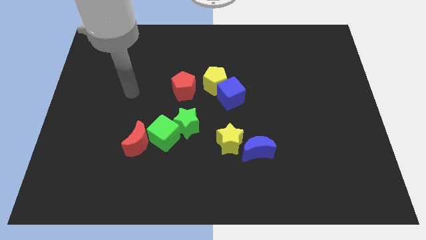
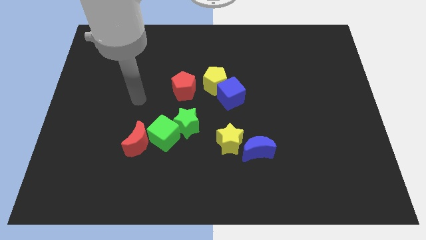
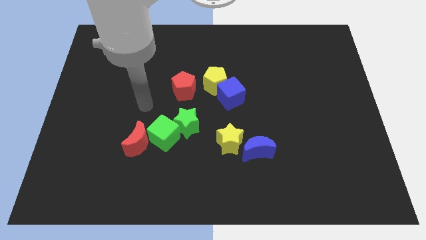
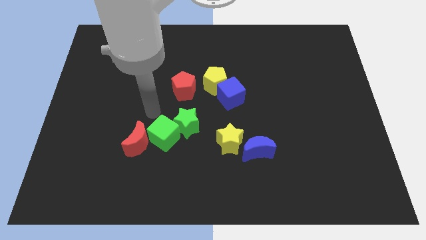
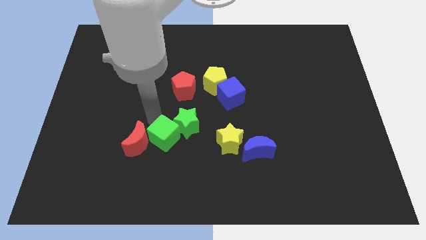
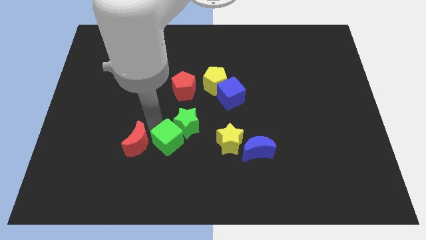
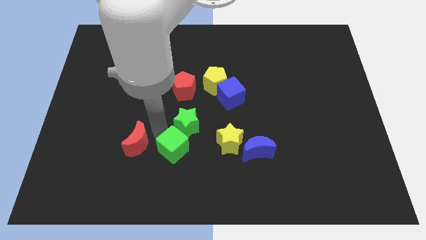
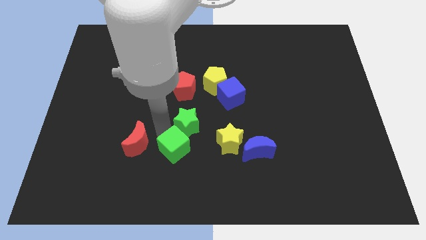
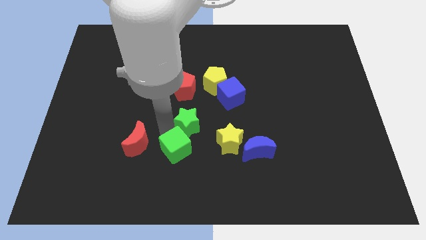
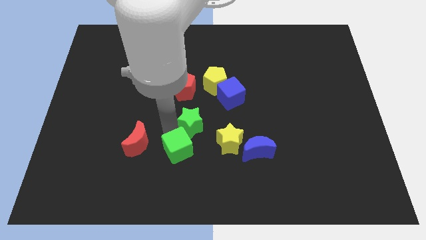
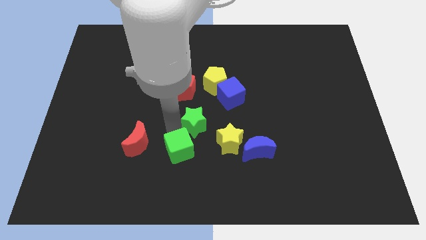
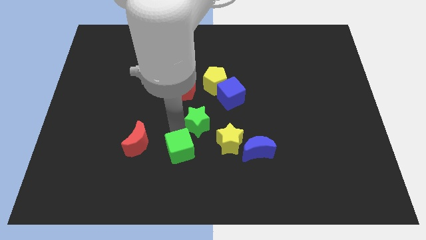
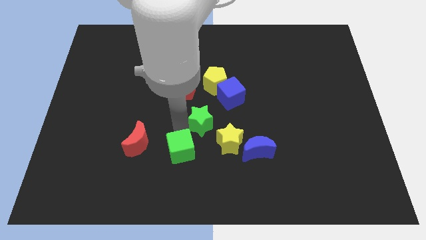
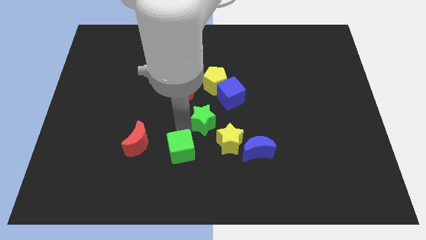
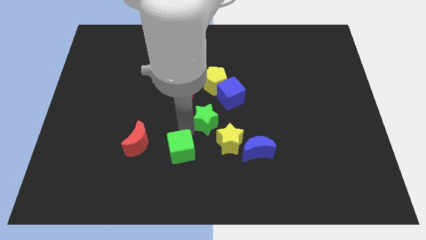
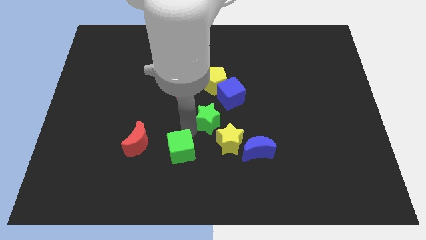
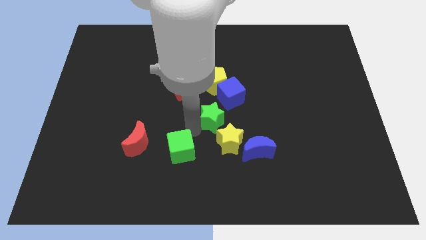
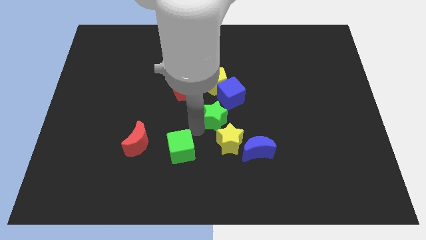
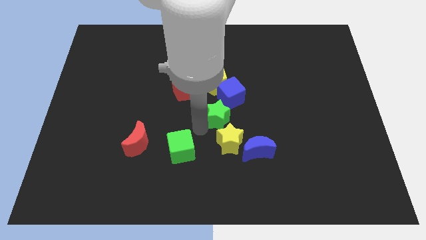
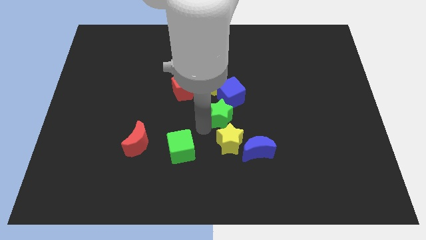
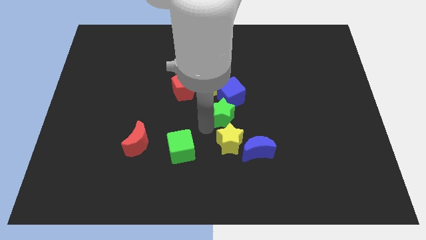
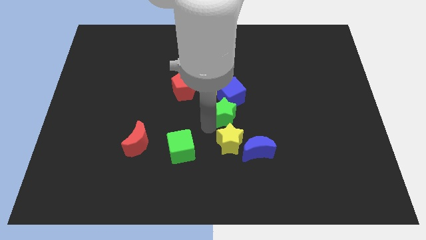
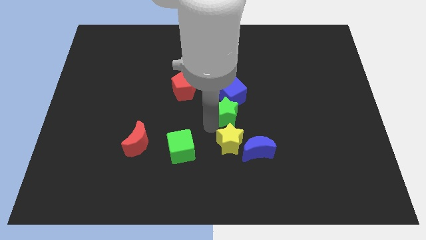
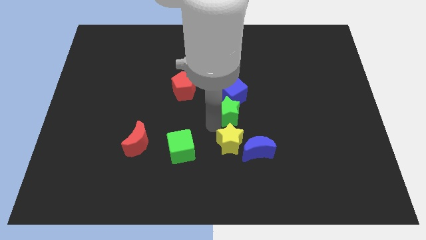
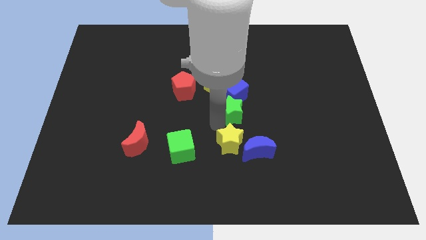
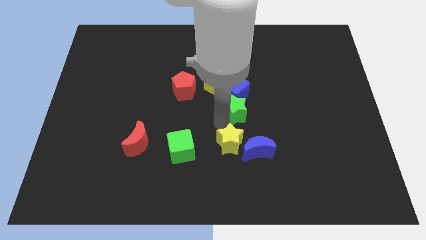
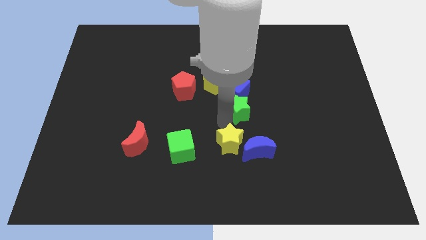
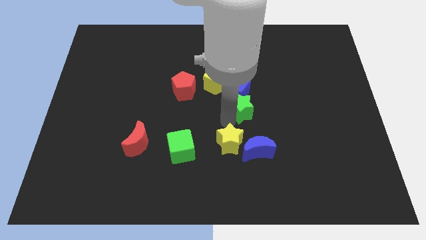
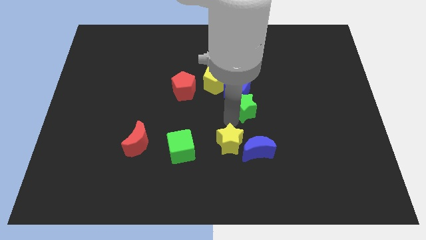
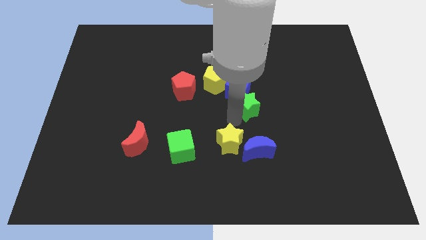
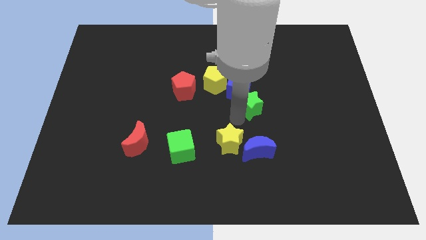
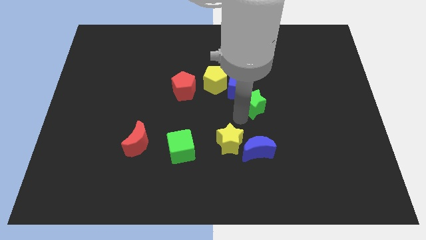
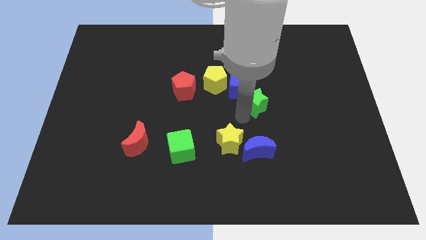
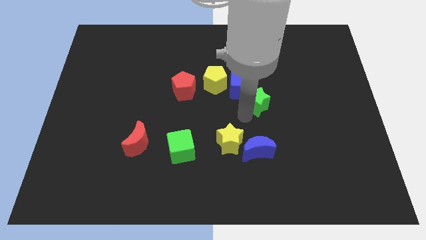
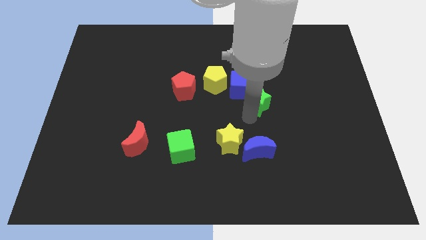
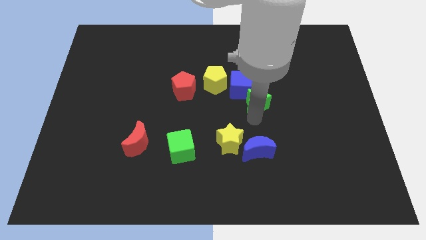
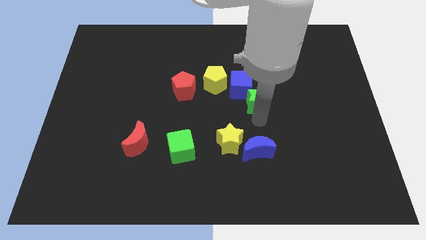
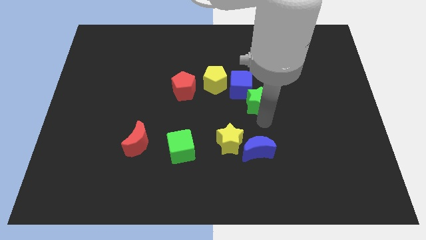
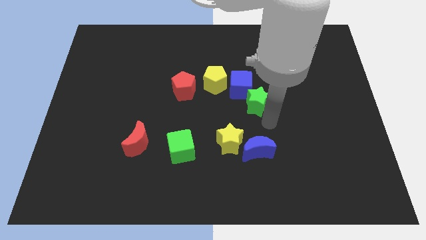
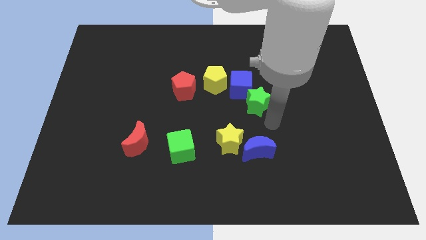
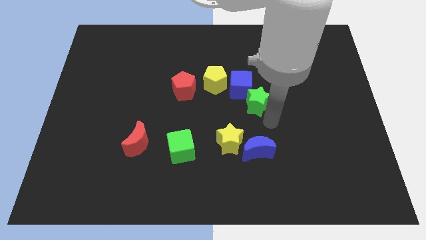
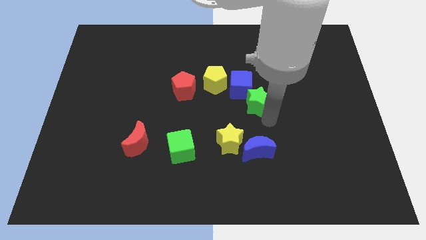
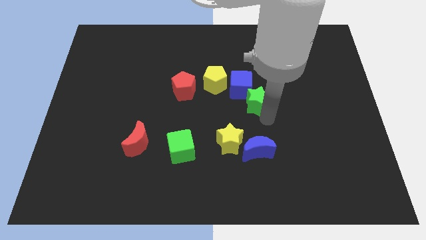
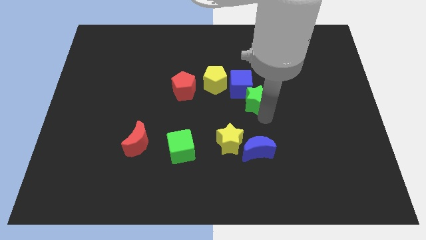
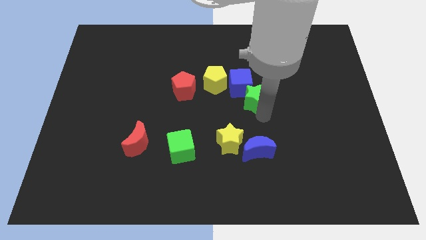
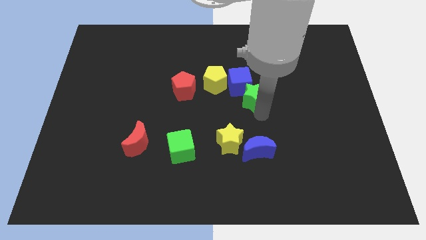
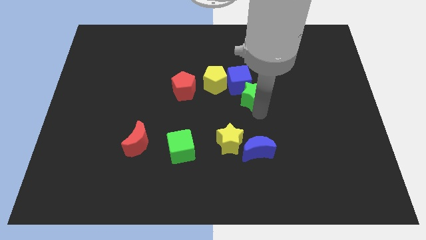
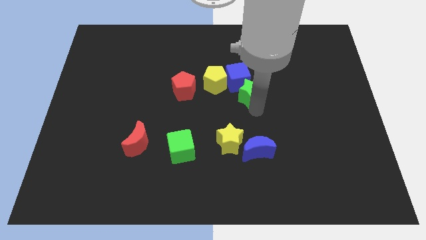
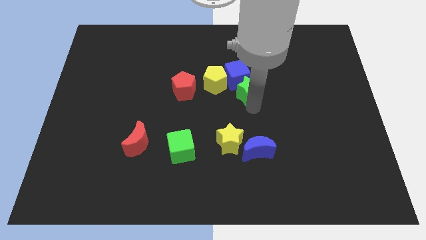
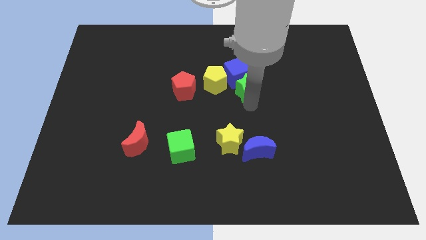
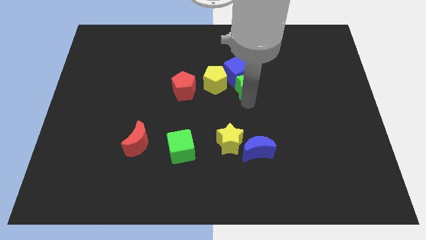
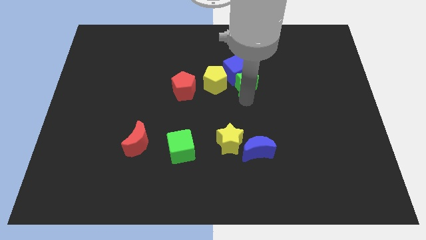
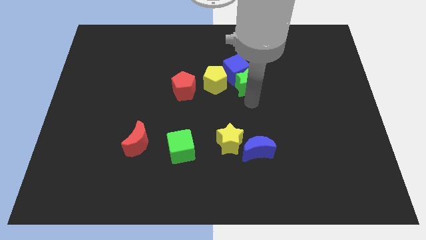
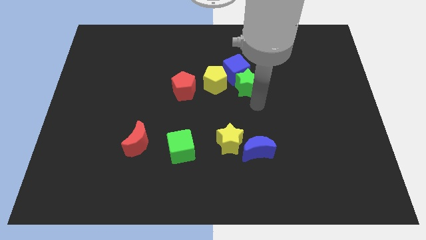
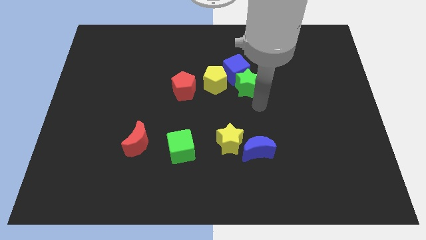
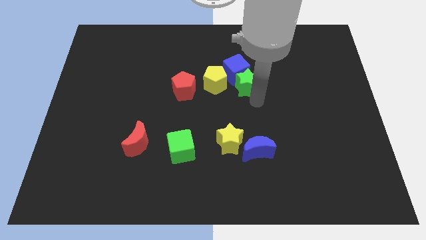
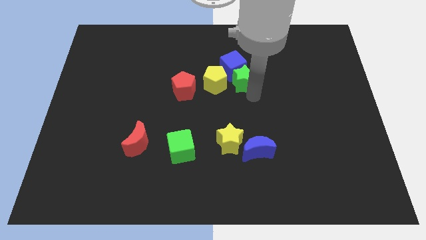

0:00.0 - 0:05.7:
push the green star to the top right of the yellow pentagon

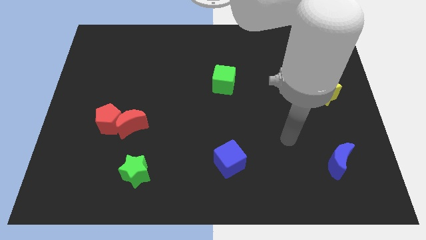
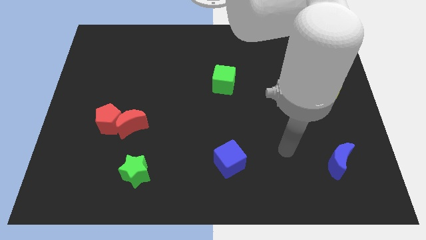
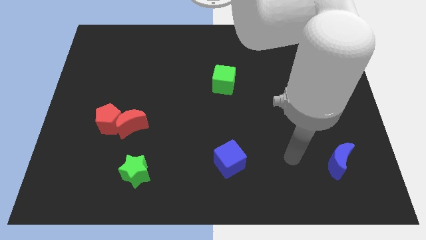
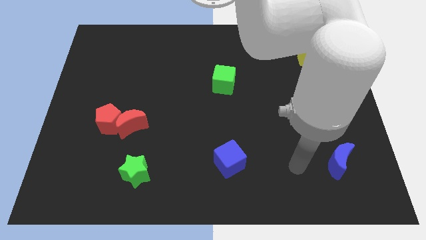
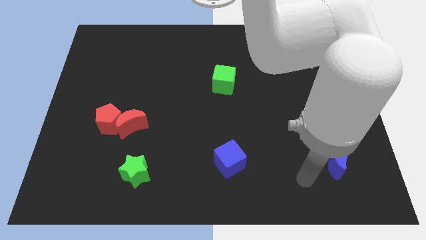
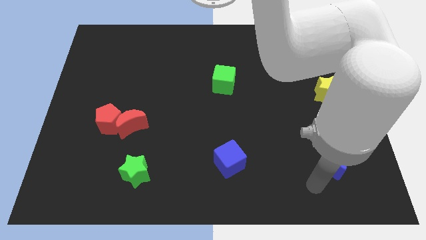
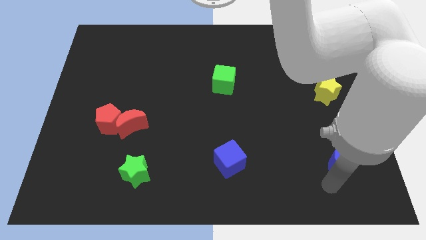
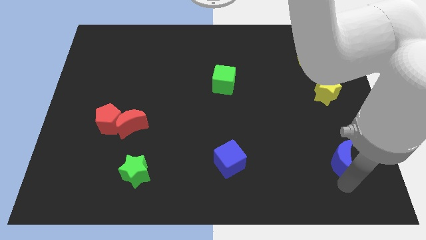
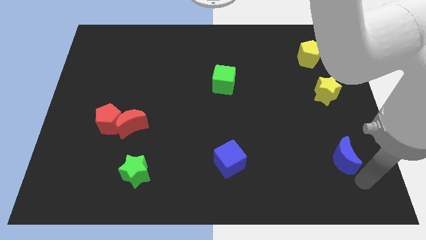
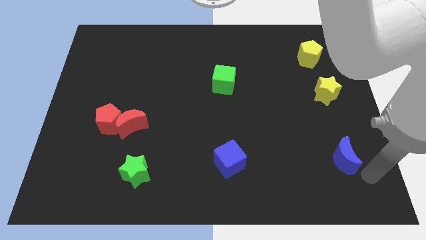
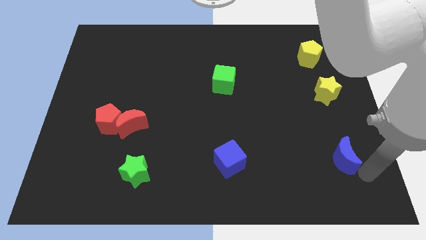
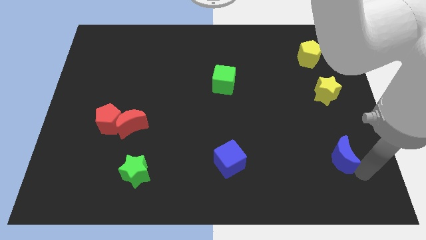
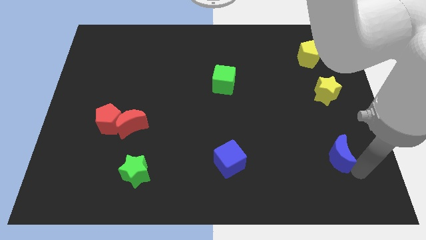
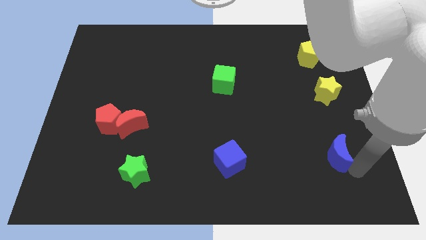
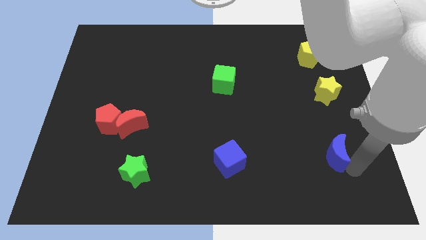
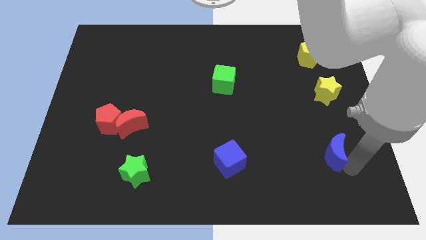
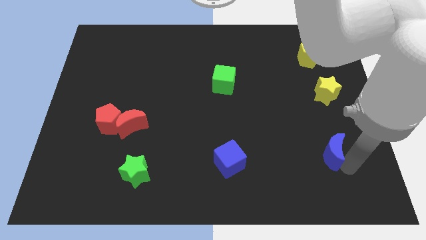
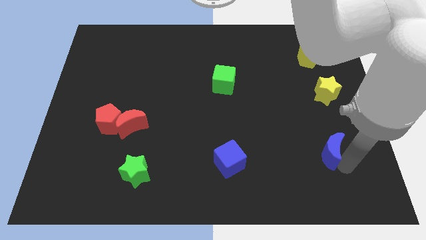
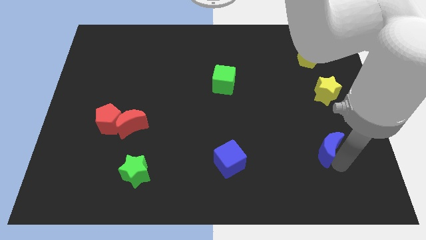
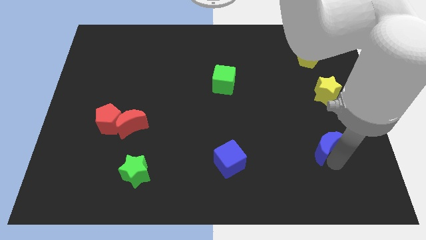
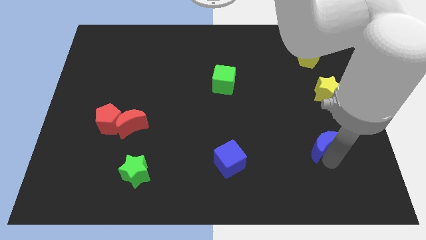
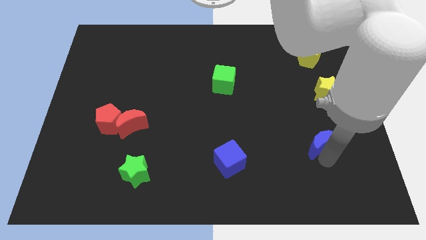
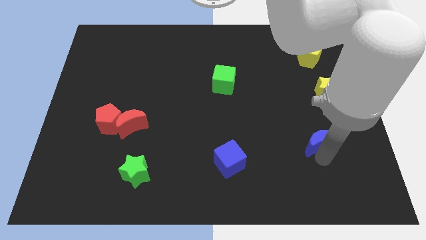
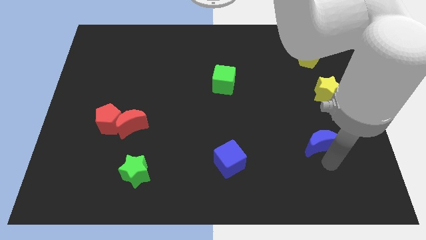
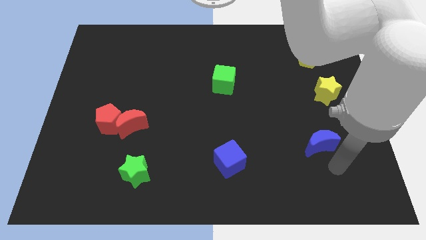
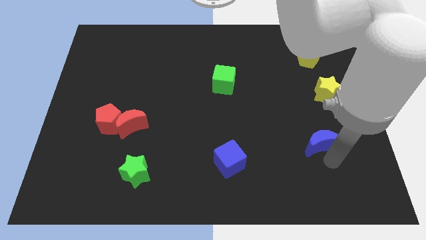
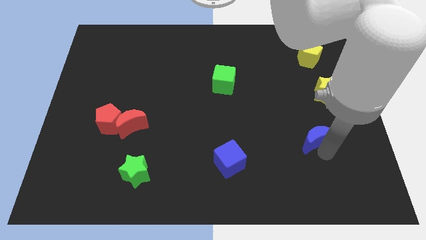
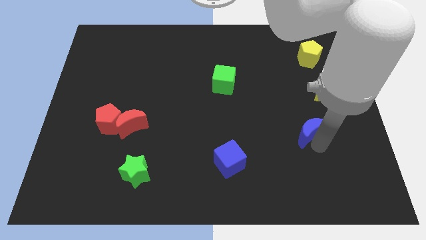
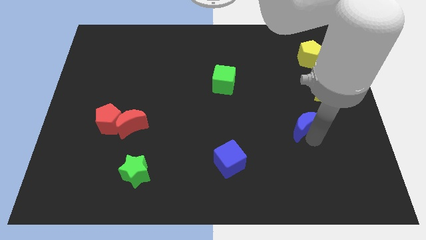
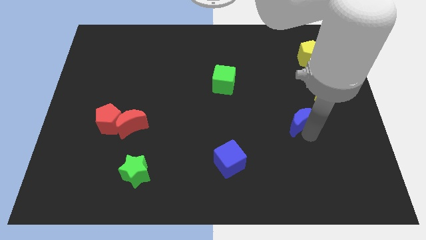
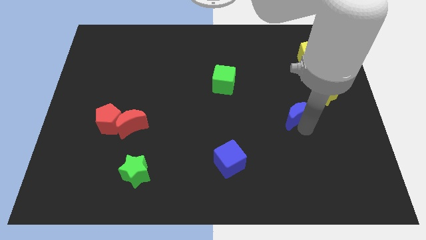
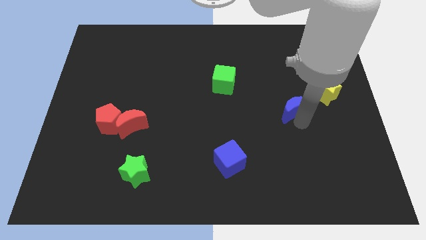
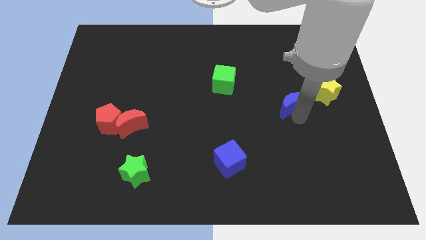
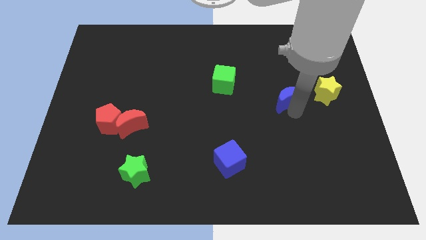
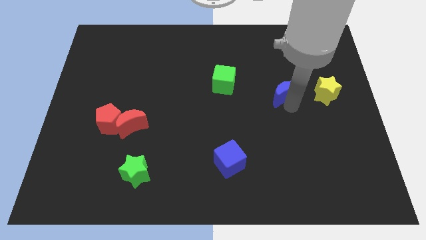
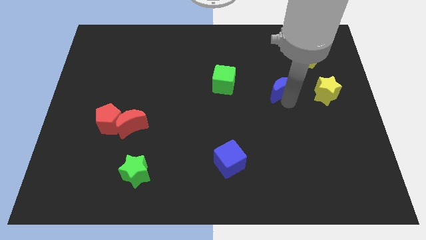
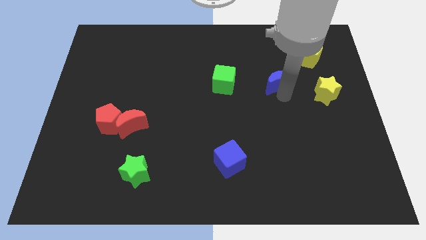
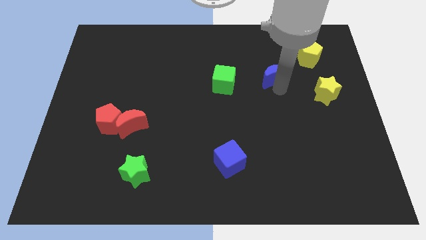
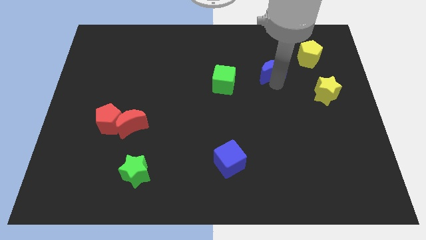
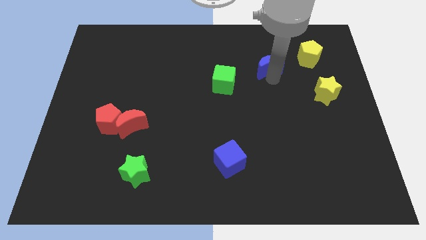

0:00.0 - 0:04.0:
push the blue moon to the left of the yellow pentagon
